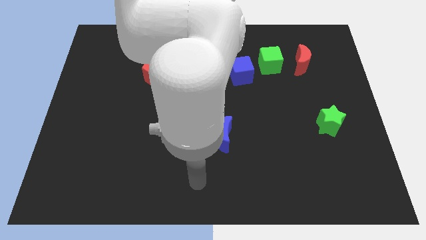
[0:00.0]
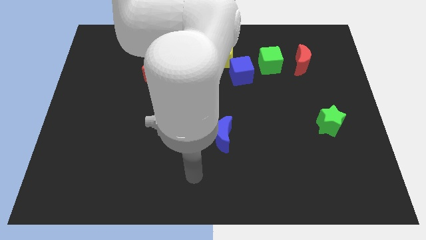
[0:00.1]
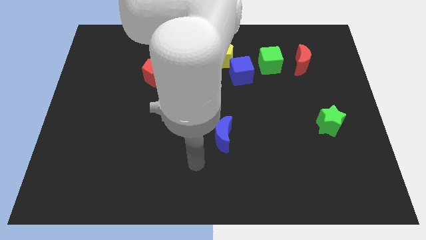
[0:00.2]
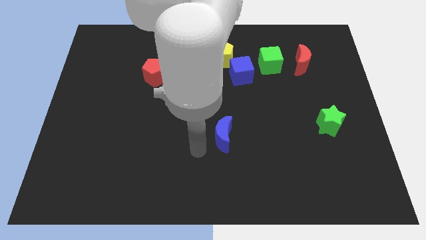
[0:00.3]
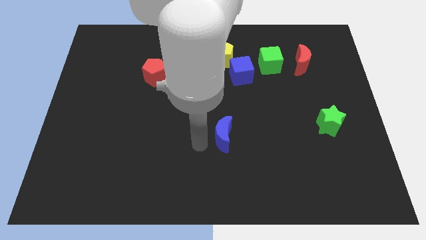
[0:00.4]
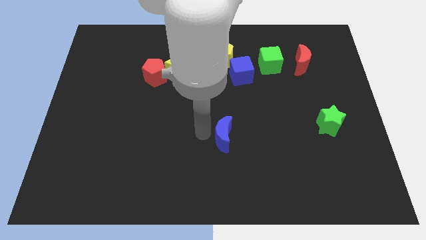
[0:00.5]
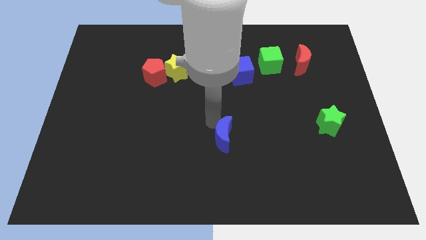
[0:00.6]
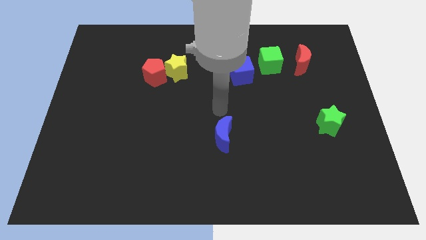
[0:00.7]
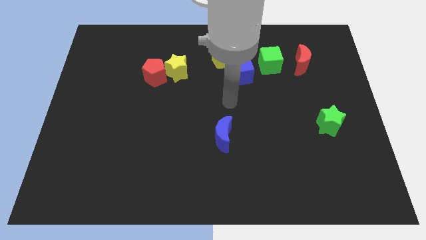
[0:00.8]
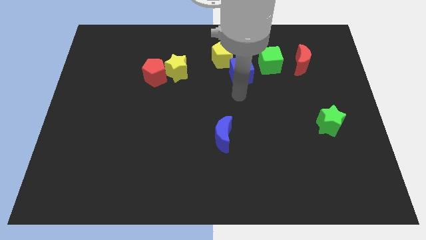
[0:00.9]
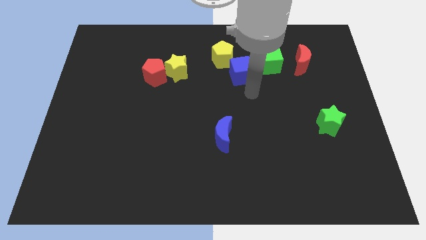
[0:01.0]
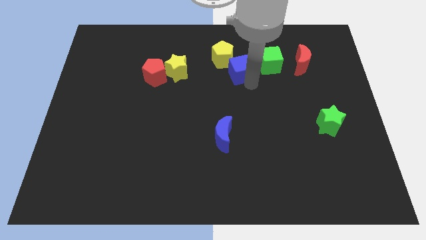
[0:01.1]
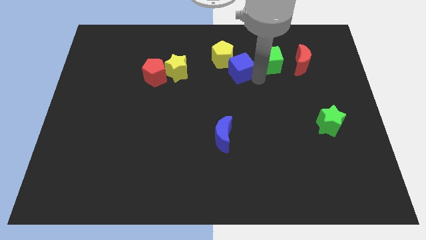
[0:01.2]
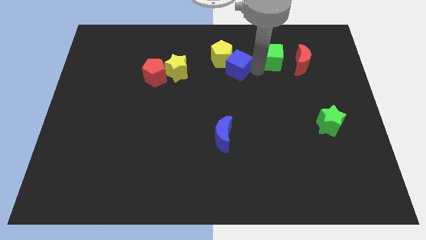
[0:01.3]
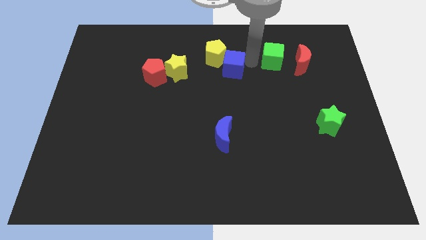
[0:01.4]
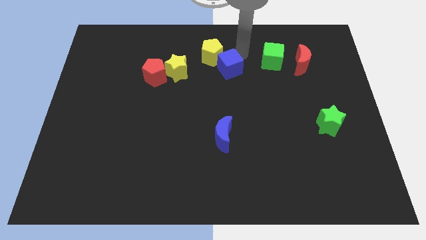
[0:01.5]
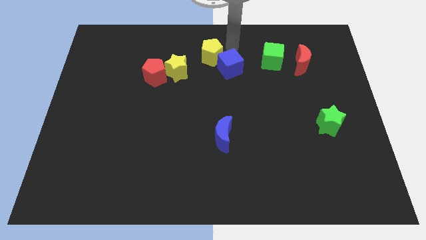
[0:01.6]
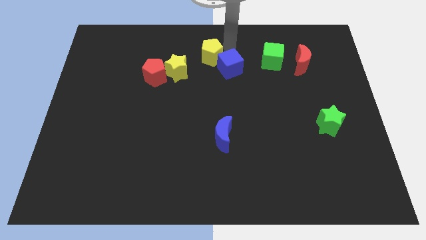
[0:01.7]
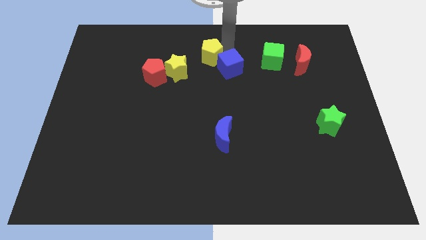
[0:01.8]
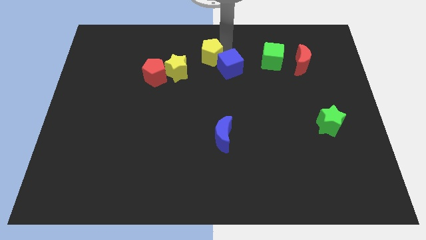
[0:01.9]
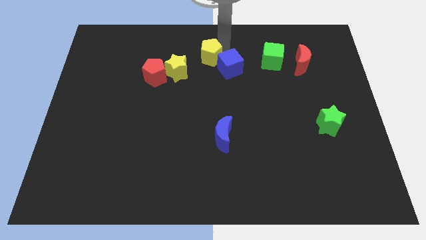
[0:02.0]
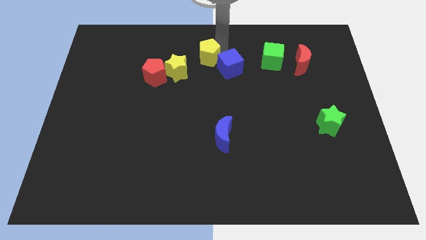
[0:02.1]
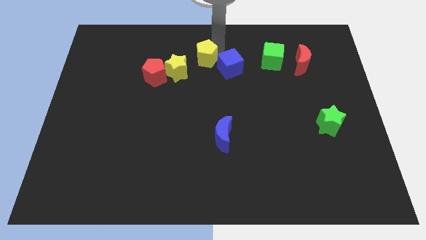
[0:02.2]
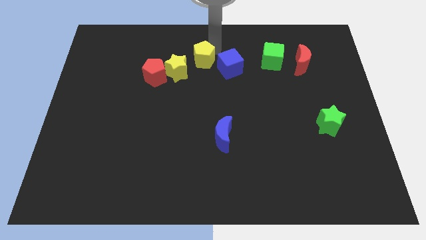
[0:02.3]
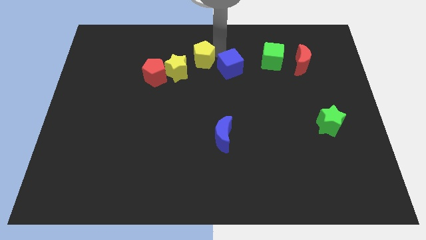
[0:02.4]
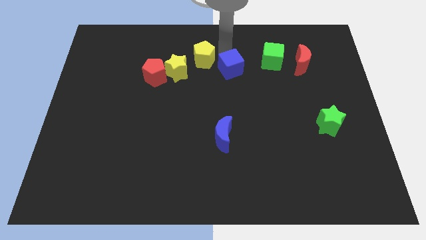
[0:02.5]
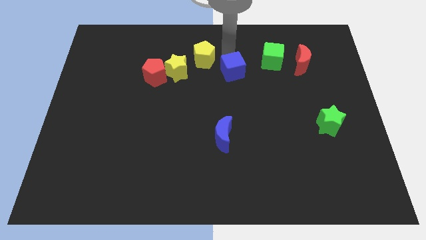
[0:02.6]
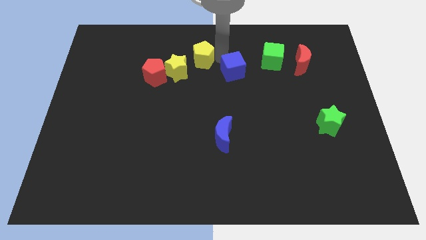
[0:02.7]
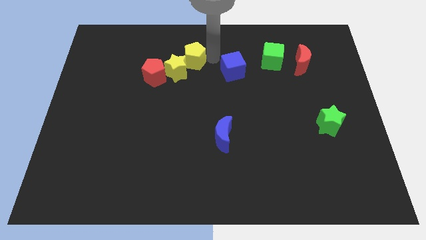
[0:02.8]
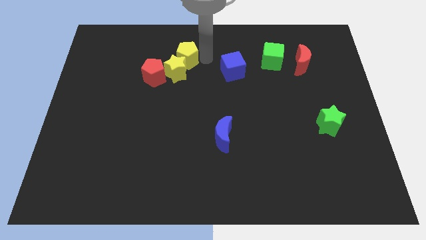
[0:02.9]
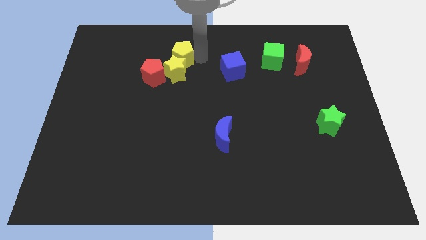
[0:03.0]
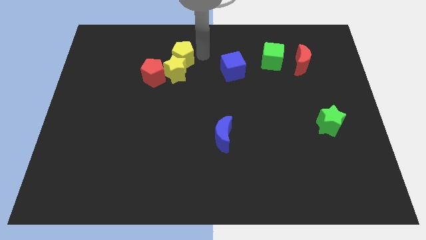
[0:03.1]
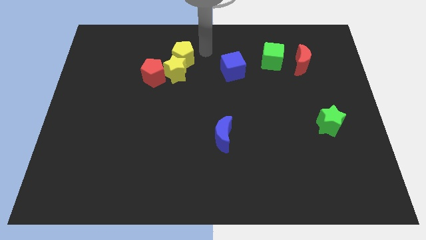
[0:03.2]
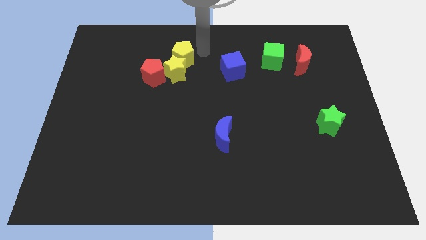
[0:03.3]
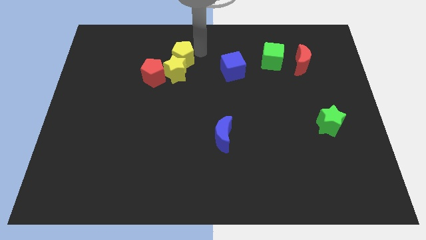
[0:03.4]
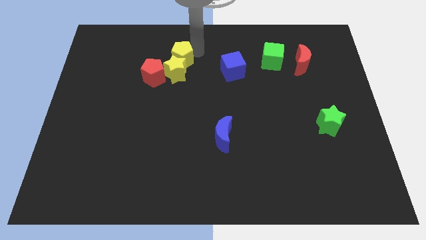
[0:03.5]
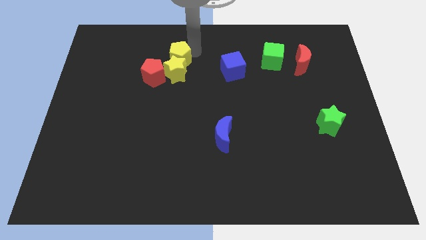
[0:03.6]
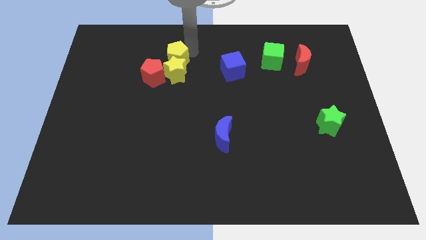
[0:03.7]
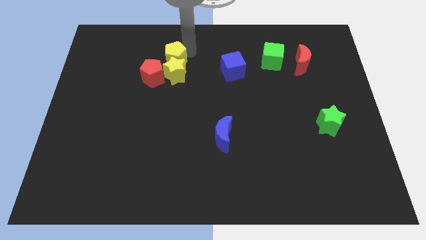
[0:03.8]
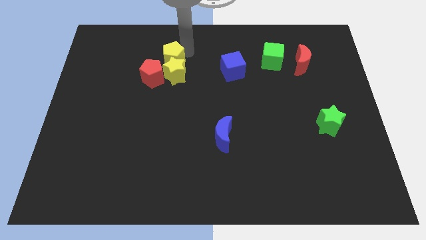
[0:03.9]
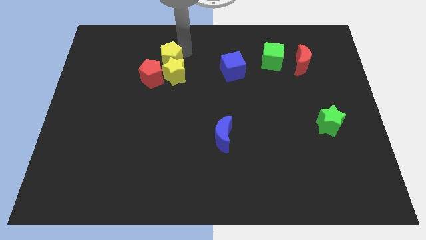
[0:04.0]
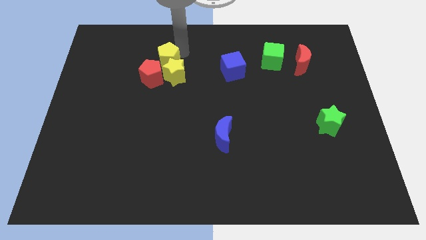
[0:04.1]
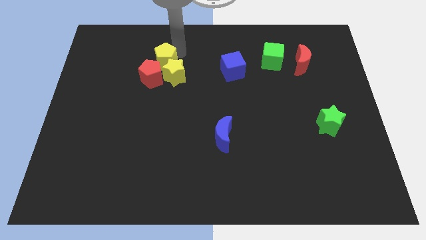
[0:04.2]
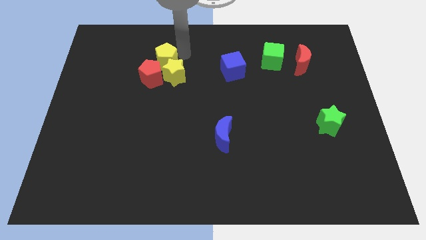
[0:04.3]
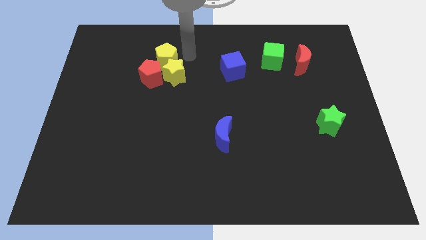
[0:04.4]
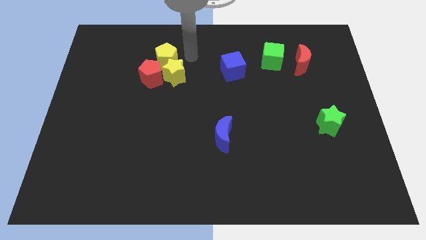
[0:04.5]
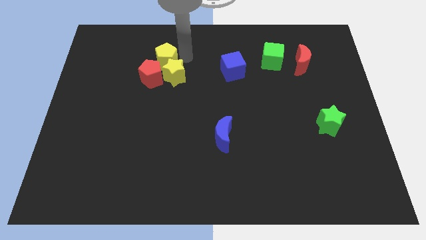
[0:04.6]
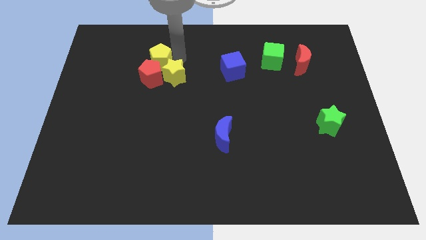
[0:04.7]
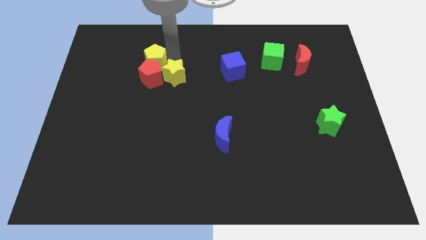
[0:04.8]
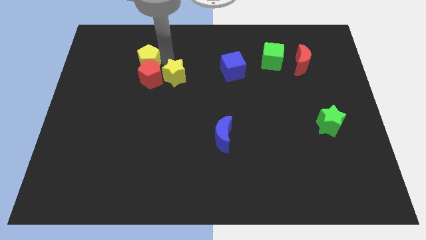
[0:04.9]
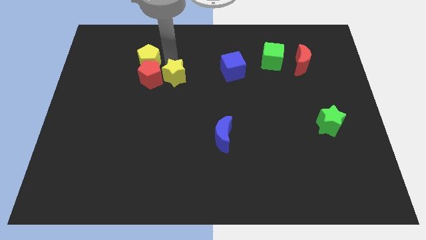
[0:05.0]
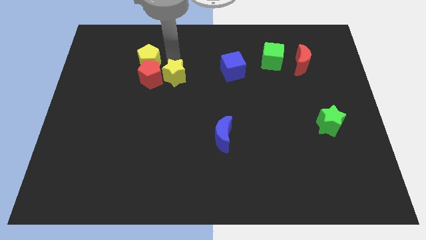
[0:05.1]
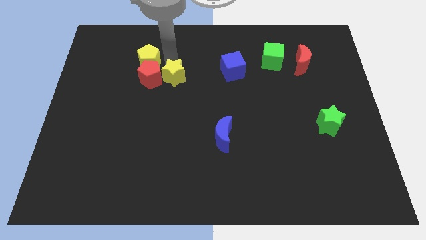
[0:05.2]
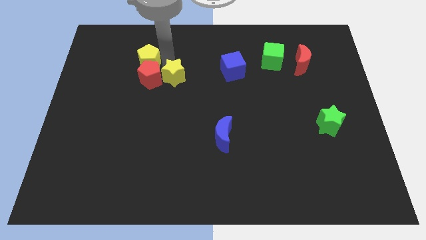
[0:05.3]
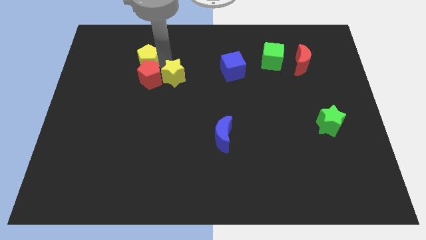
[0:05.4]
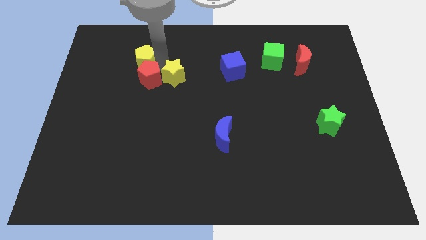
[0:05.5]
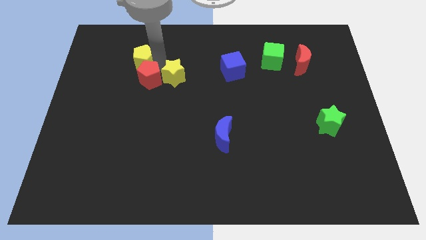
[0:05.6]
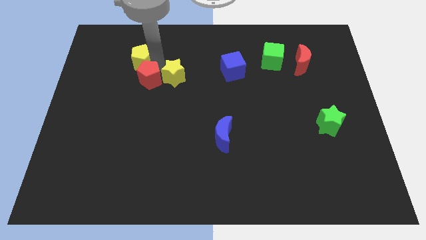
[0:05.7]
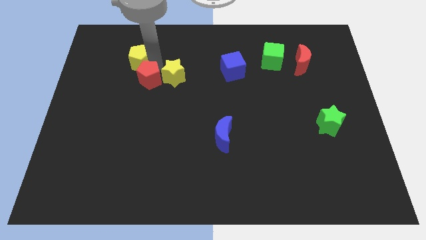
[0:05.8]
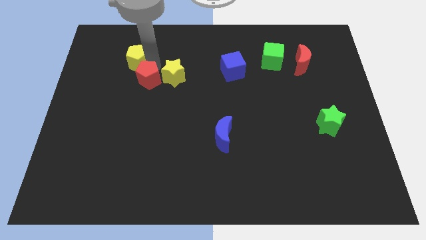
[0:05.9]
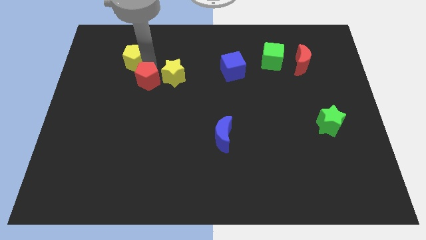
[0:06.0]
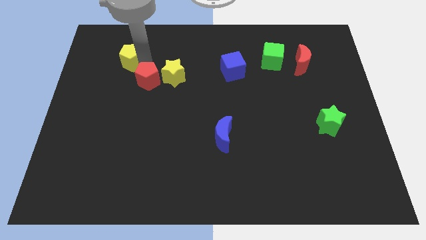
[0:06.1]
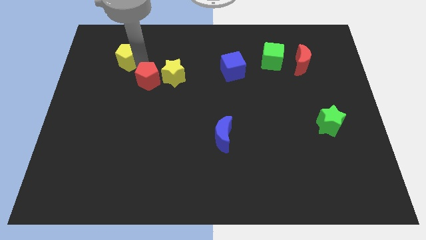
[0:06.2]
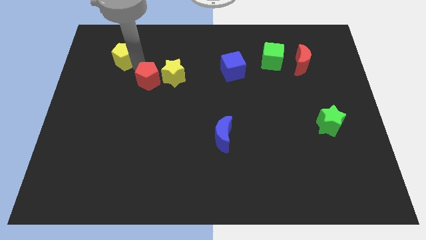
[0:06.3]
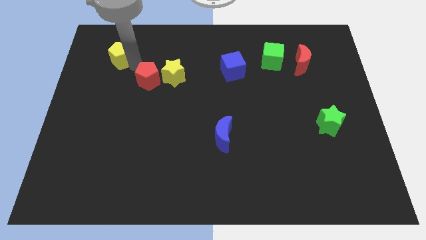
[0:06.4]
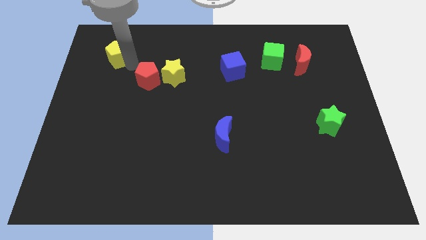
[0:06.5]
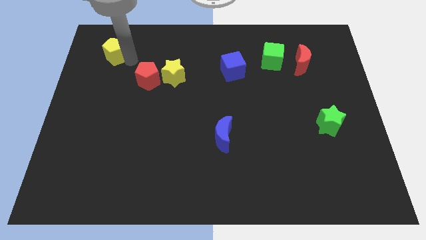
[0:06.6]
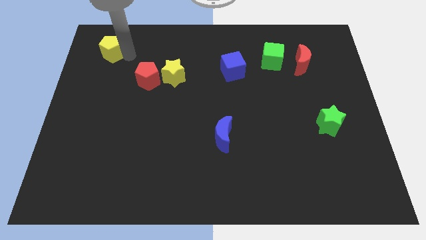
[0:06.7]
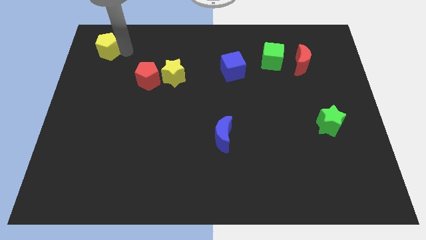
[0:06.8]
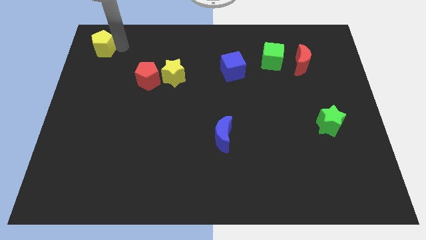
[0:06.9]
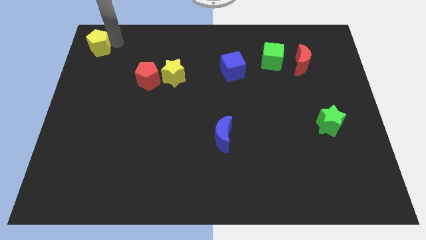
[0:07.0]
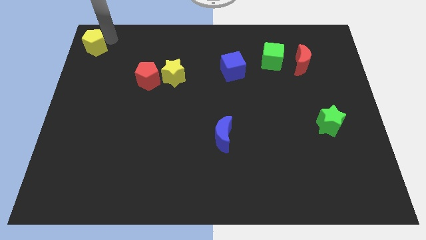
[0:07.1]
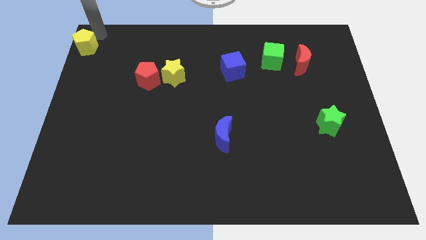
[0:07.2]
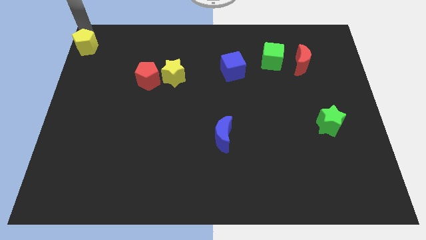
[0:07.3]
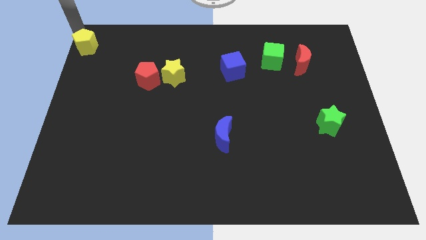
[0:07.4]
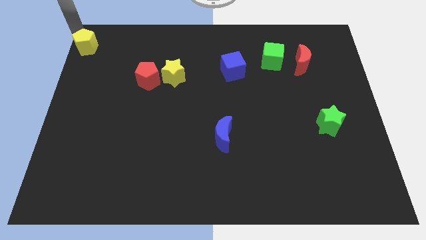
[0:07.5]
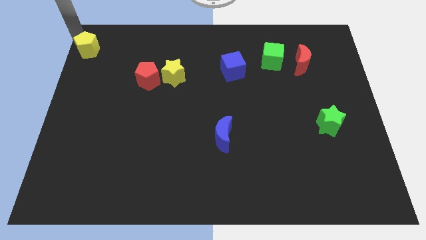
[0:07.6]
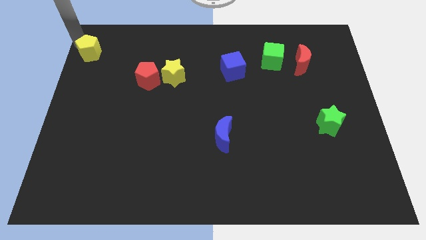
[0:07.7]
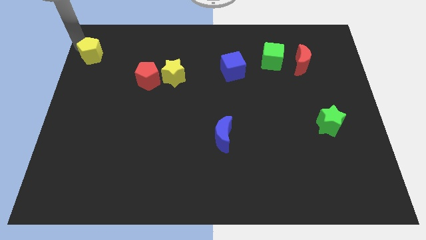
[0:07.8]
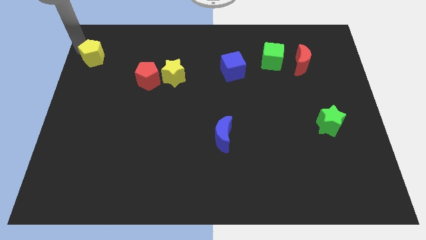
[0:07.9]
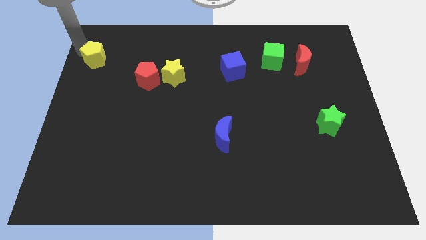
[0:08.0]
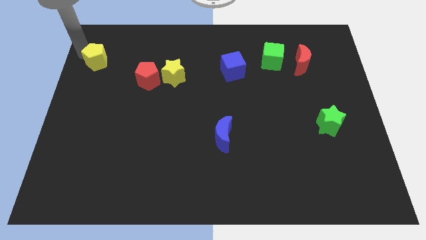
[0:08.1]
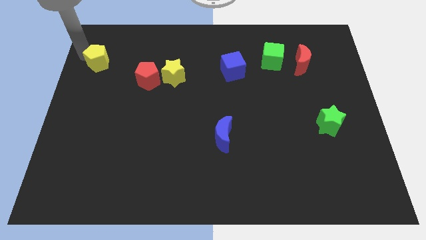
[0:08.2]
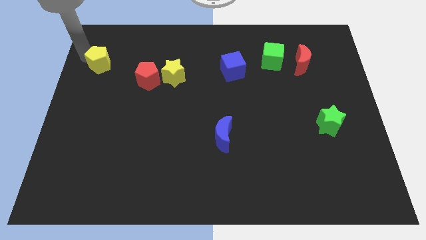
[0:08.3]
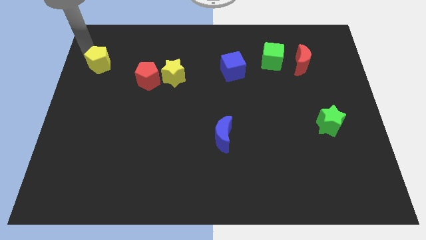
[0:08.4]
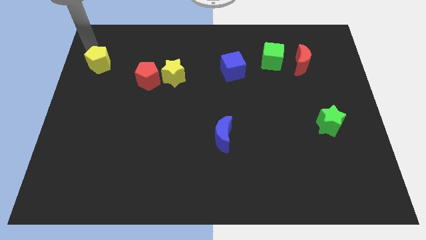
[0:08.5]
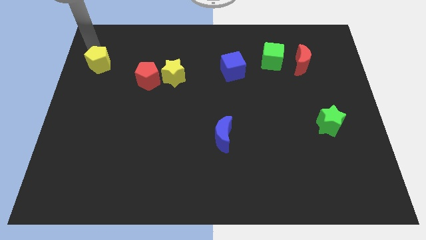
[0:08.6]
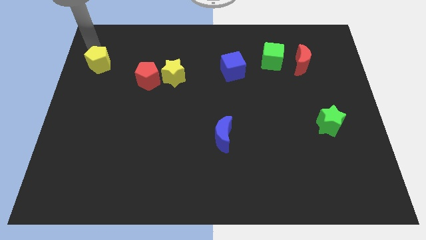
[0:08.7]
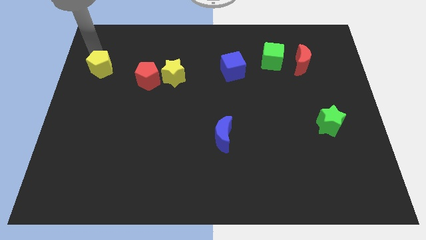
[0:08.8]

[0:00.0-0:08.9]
slide the yellow pentagon just left of the red pentagon
